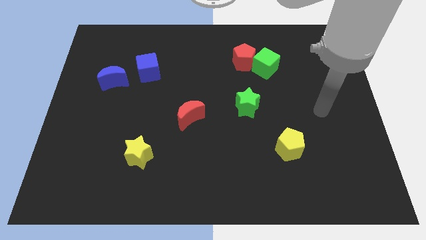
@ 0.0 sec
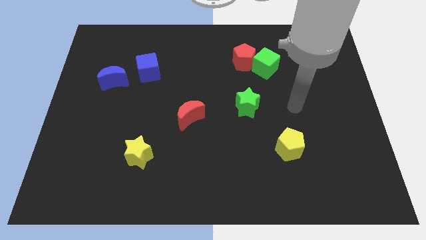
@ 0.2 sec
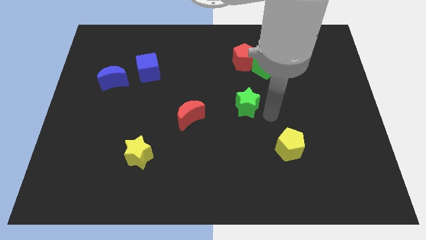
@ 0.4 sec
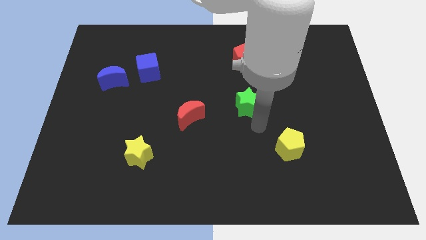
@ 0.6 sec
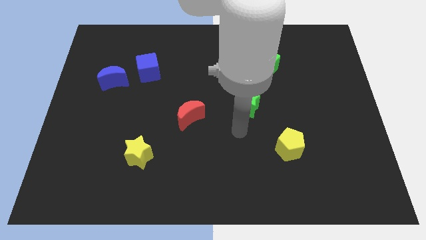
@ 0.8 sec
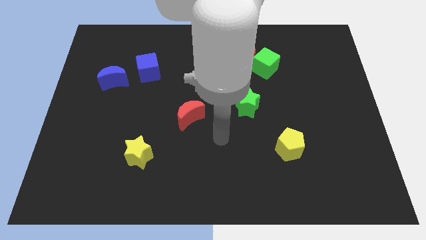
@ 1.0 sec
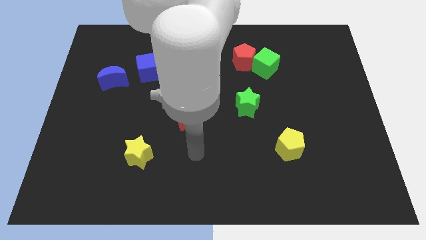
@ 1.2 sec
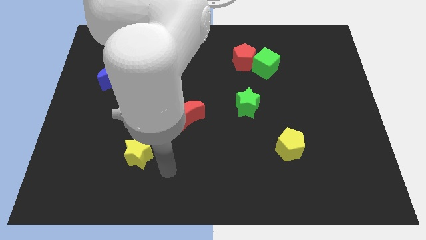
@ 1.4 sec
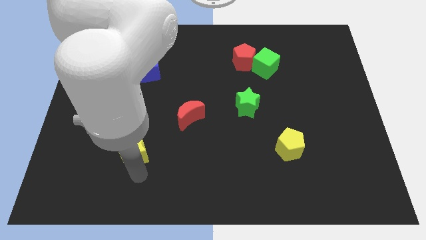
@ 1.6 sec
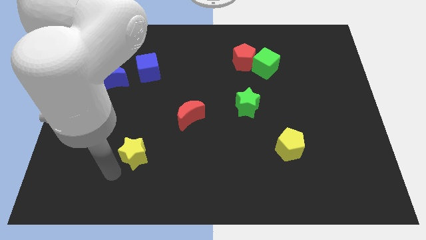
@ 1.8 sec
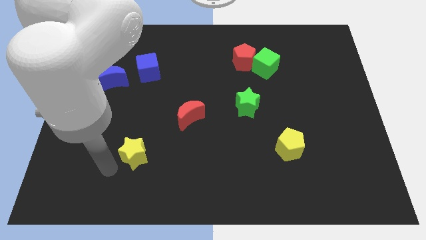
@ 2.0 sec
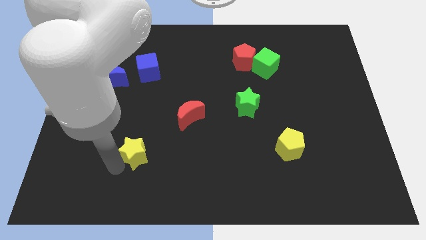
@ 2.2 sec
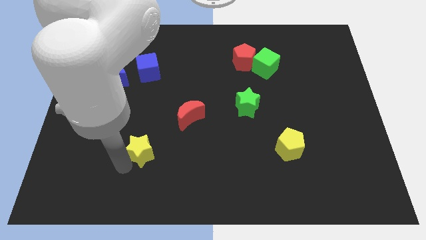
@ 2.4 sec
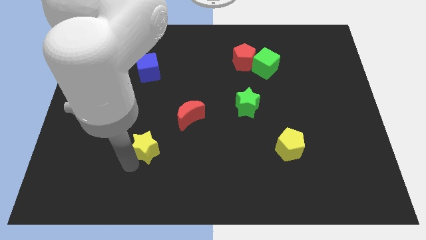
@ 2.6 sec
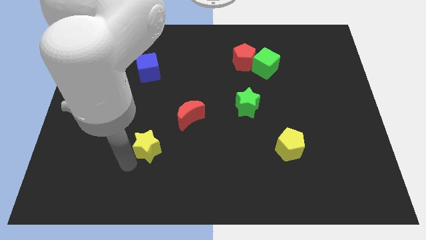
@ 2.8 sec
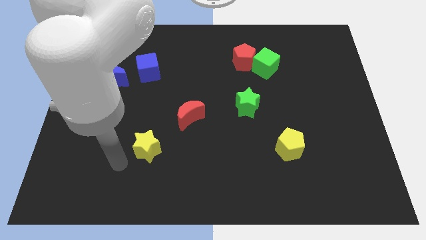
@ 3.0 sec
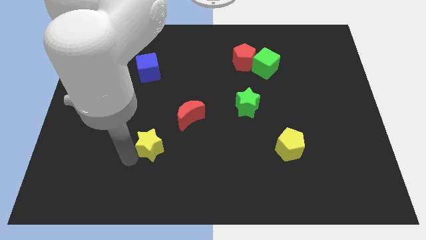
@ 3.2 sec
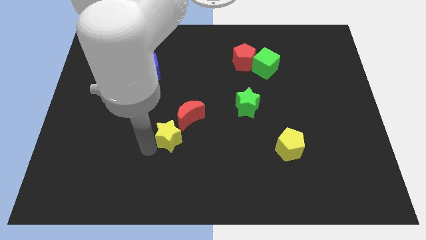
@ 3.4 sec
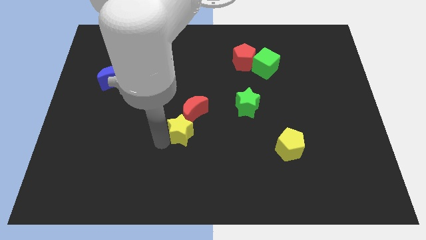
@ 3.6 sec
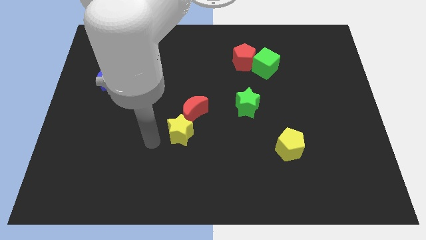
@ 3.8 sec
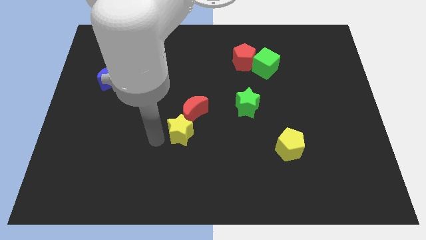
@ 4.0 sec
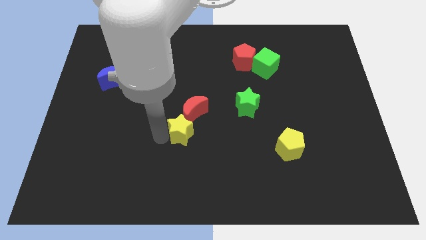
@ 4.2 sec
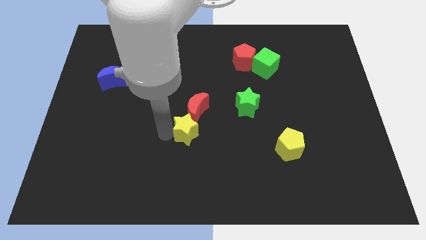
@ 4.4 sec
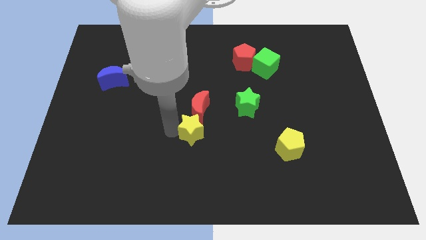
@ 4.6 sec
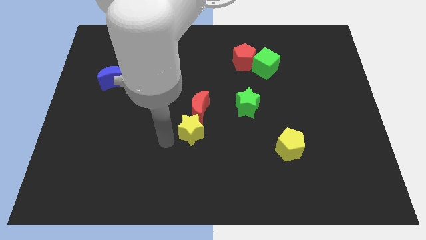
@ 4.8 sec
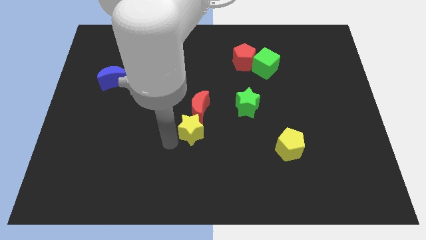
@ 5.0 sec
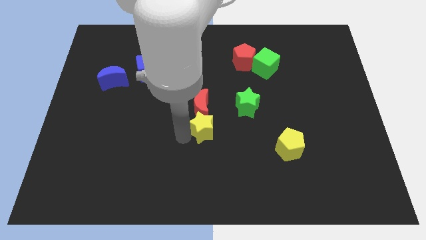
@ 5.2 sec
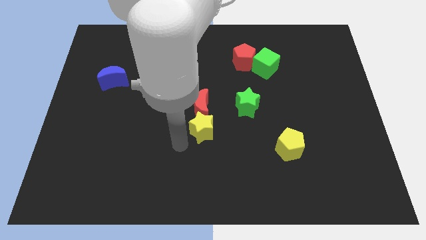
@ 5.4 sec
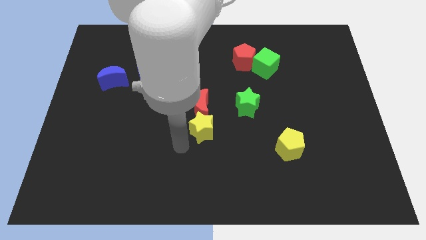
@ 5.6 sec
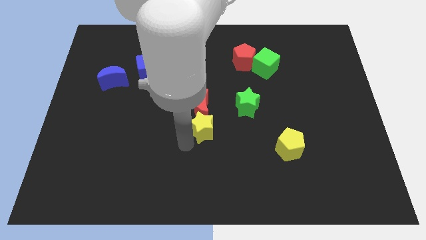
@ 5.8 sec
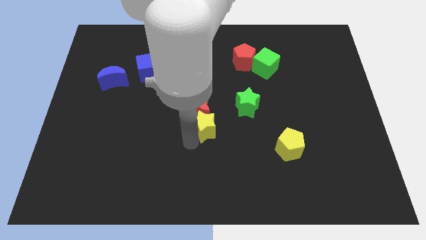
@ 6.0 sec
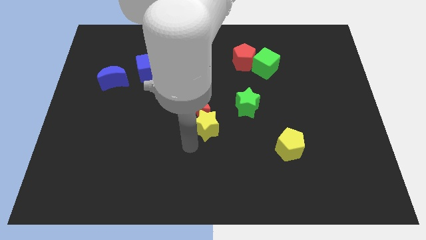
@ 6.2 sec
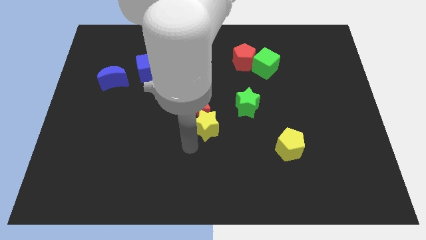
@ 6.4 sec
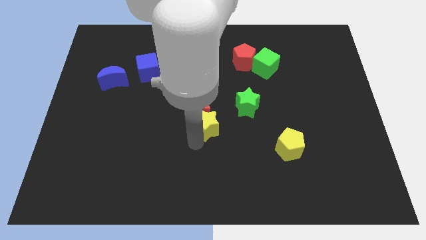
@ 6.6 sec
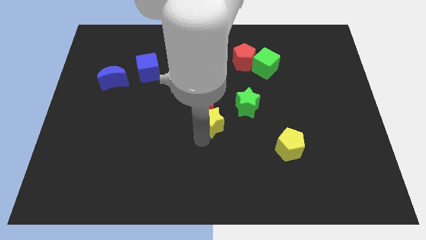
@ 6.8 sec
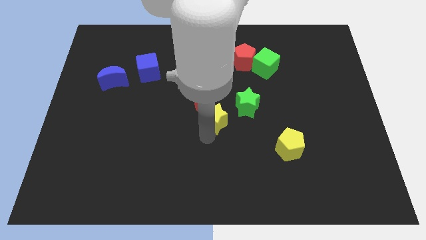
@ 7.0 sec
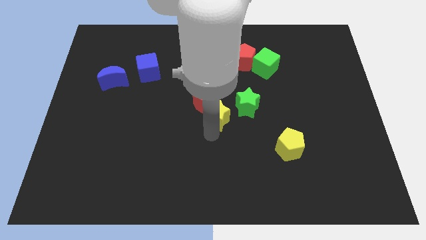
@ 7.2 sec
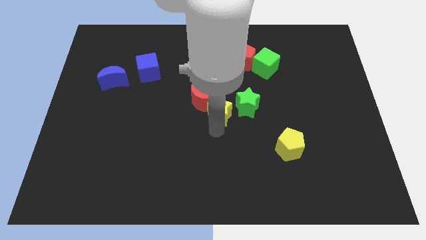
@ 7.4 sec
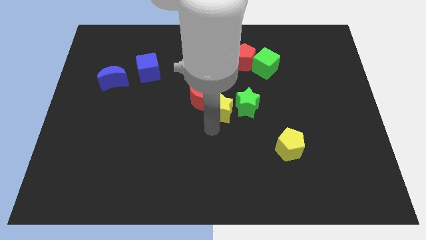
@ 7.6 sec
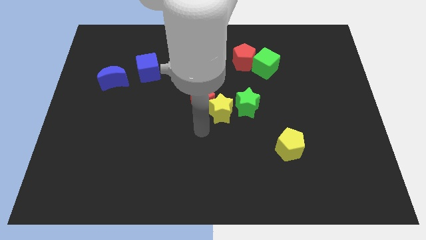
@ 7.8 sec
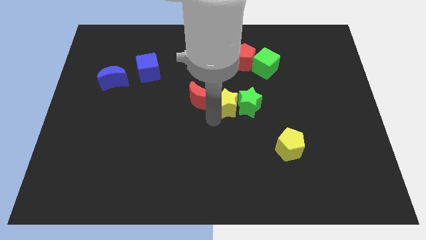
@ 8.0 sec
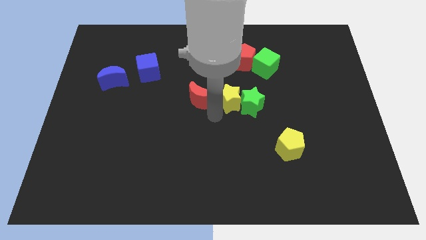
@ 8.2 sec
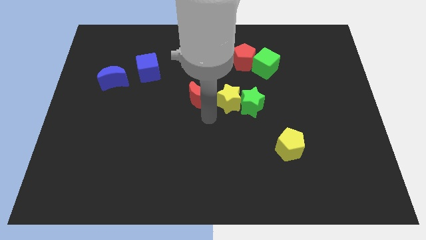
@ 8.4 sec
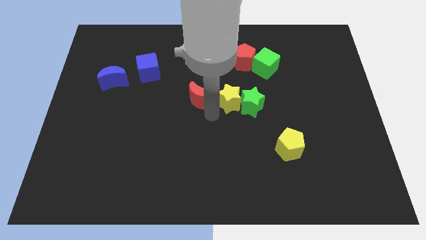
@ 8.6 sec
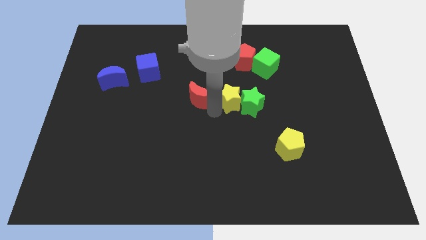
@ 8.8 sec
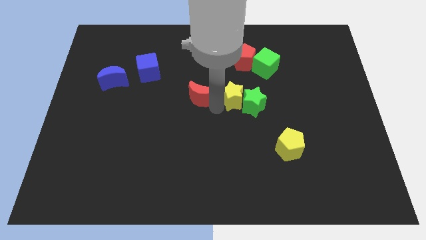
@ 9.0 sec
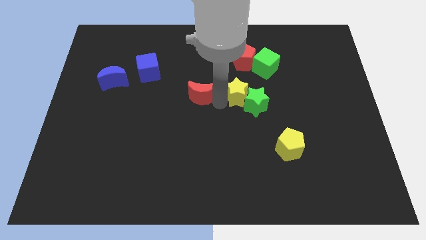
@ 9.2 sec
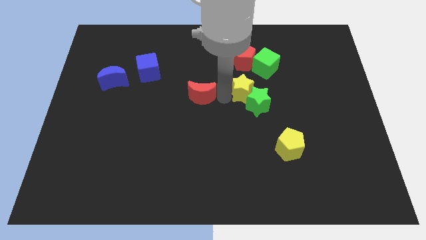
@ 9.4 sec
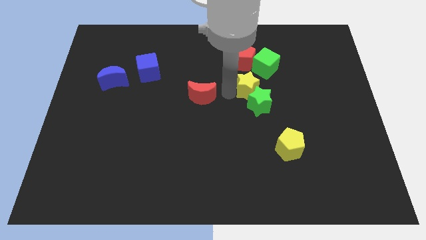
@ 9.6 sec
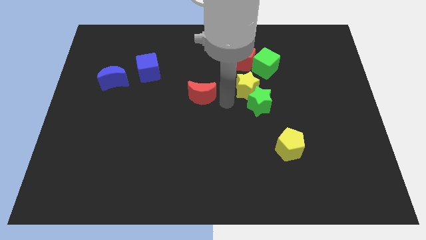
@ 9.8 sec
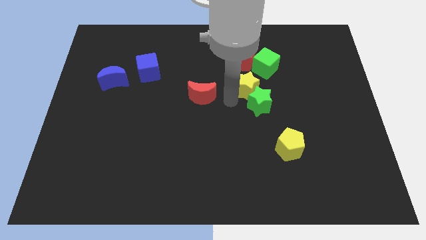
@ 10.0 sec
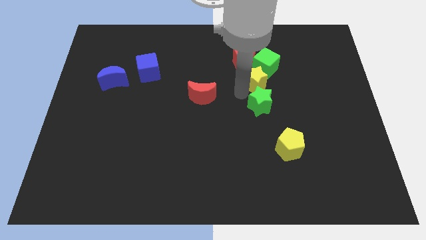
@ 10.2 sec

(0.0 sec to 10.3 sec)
put the yellow star to the bottom right side of the red pentagon

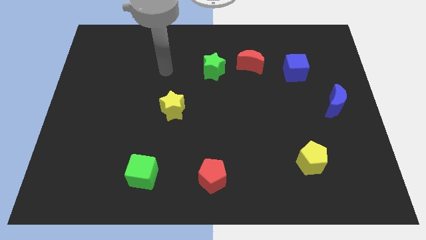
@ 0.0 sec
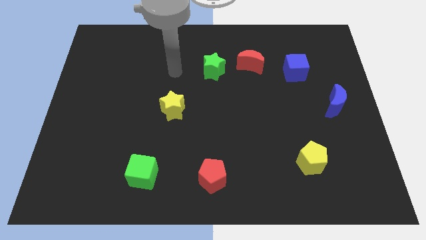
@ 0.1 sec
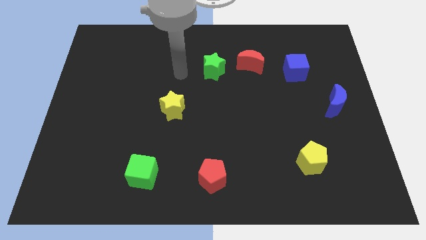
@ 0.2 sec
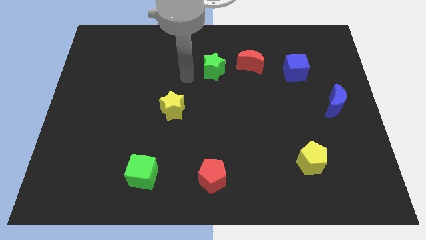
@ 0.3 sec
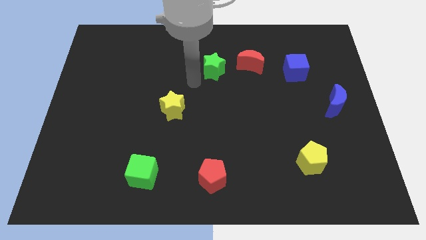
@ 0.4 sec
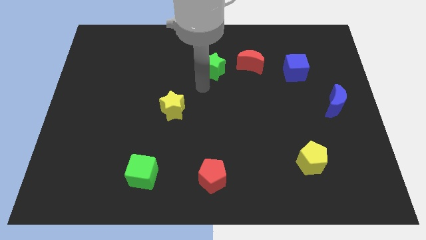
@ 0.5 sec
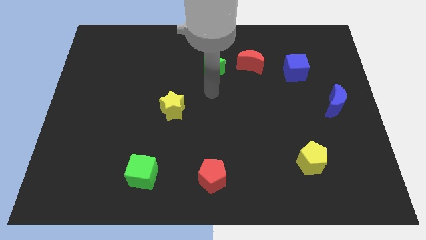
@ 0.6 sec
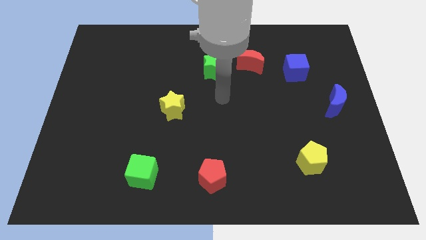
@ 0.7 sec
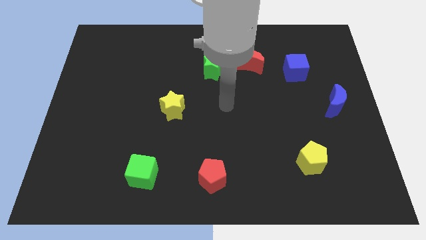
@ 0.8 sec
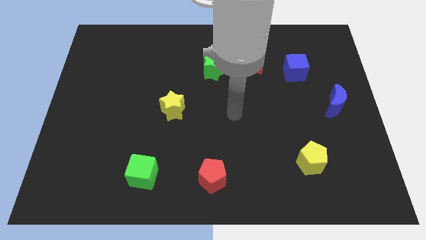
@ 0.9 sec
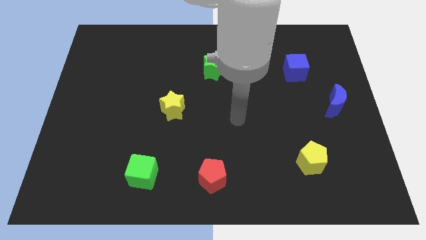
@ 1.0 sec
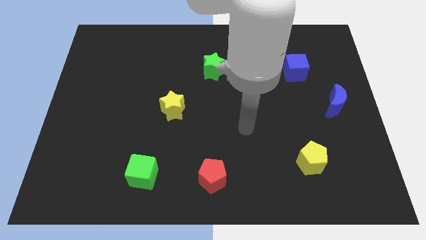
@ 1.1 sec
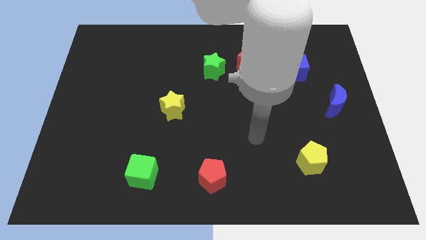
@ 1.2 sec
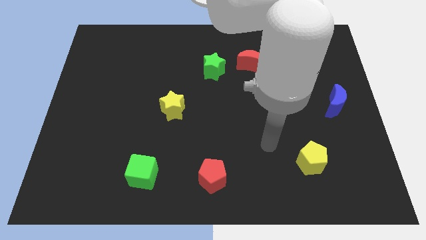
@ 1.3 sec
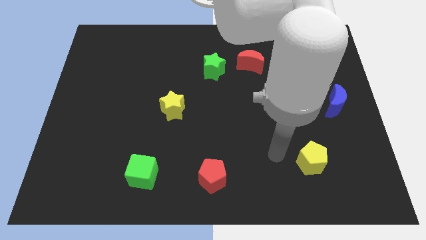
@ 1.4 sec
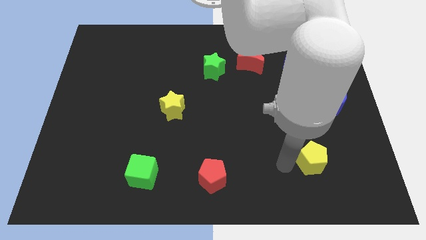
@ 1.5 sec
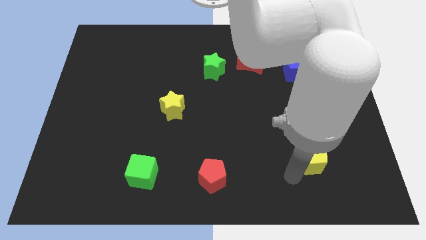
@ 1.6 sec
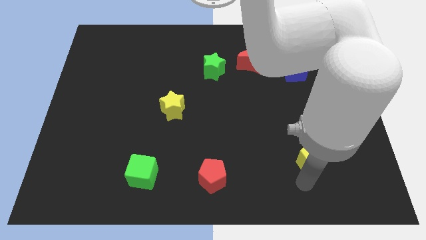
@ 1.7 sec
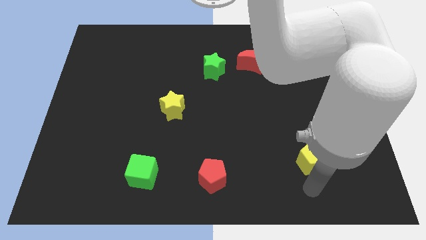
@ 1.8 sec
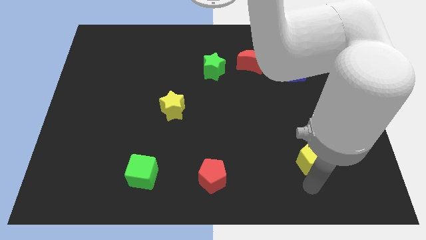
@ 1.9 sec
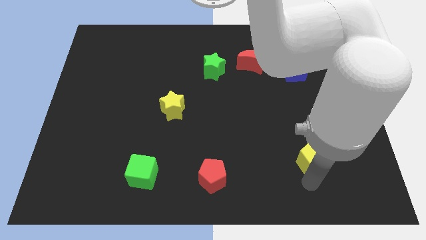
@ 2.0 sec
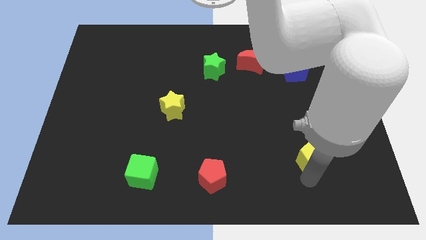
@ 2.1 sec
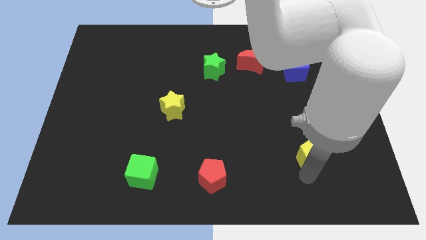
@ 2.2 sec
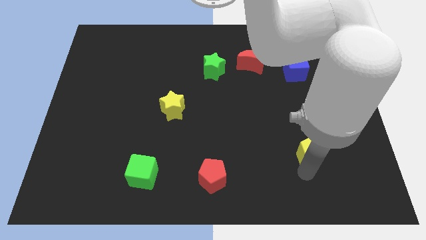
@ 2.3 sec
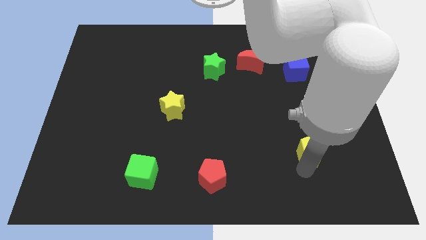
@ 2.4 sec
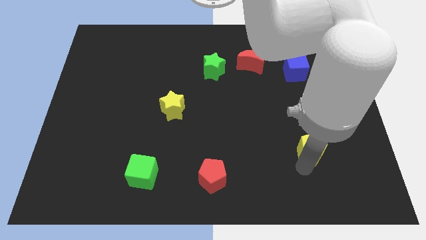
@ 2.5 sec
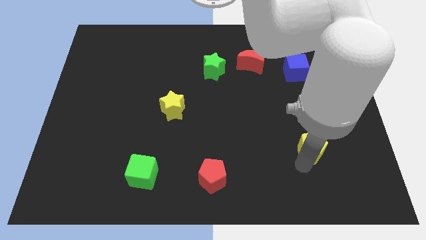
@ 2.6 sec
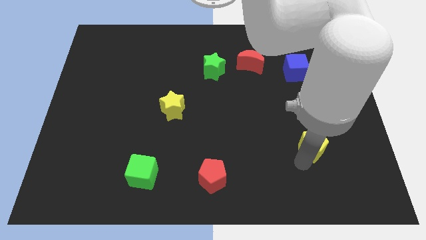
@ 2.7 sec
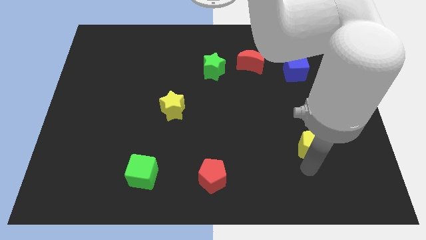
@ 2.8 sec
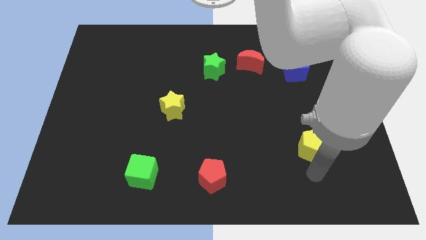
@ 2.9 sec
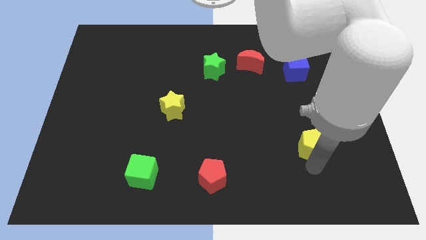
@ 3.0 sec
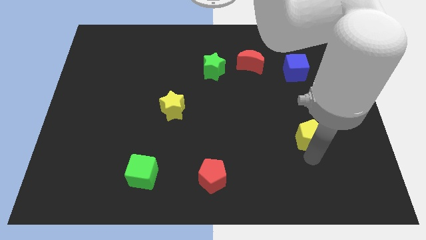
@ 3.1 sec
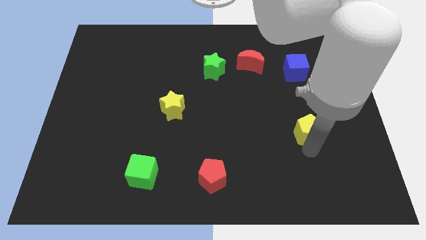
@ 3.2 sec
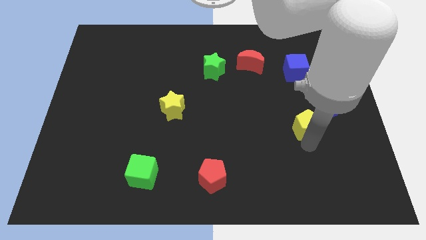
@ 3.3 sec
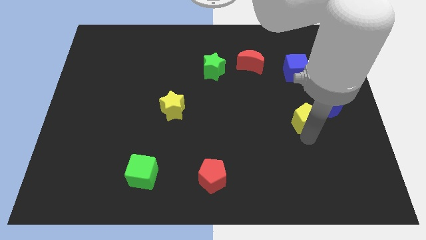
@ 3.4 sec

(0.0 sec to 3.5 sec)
slide the yellow pentagon to the left side of the blue moon
